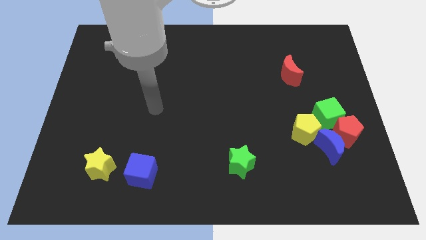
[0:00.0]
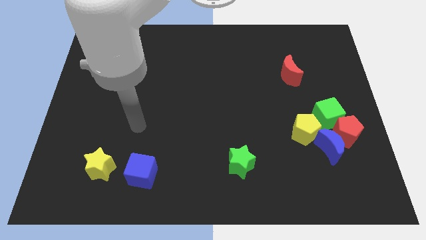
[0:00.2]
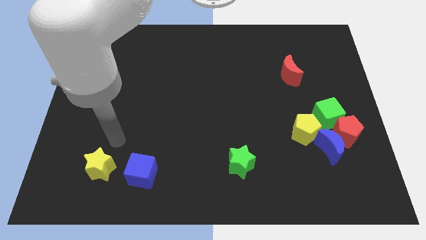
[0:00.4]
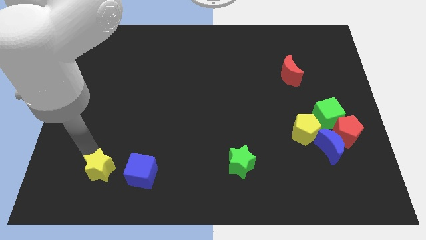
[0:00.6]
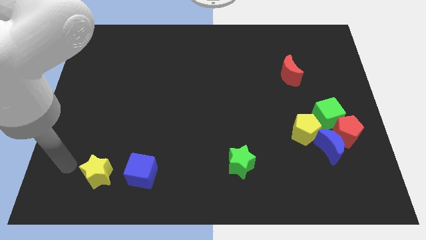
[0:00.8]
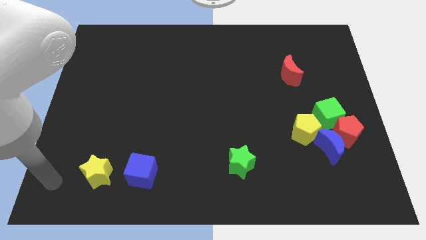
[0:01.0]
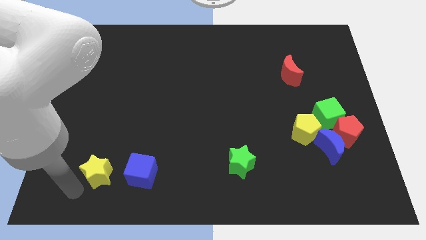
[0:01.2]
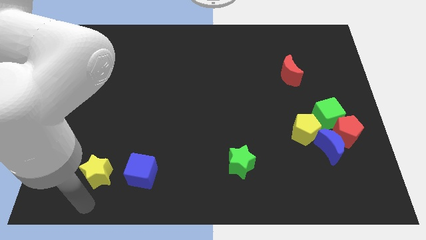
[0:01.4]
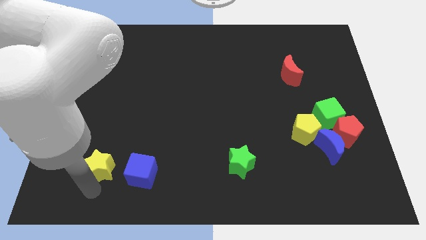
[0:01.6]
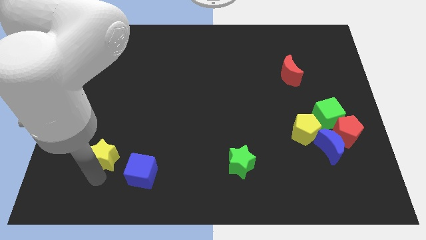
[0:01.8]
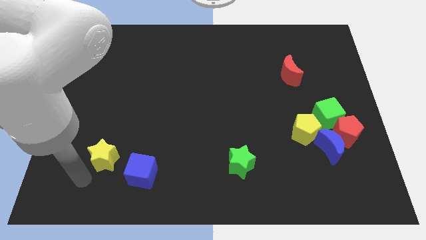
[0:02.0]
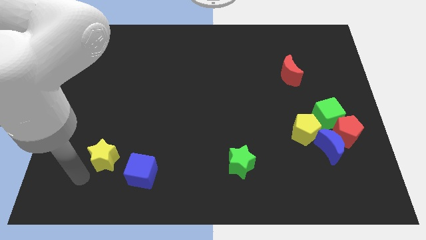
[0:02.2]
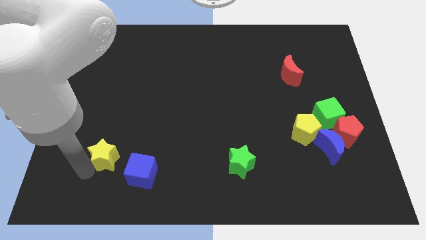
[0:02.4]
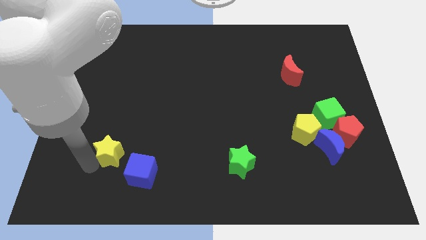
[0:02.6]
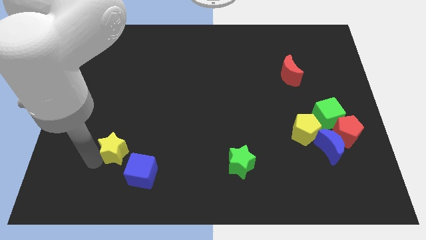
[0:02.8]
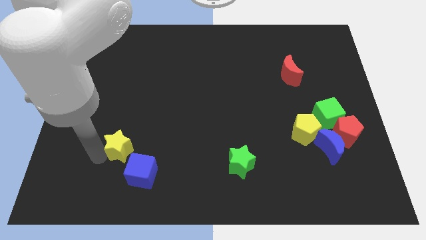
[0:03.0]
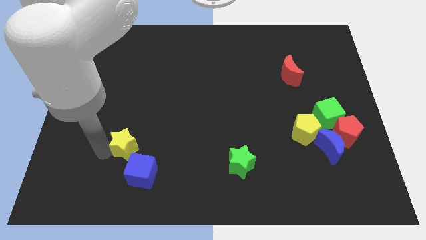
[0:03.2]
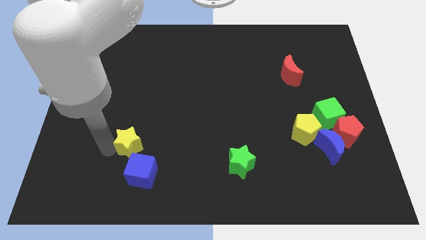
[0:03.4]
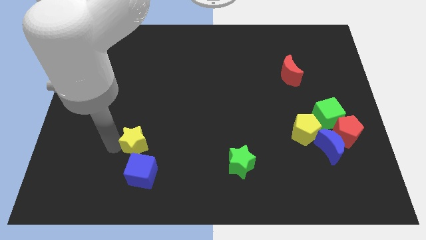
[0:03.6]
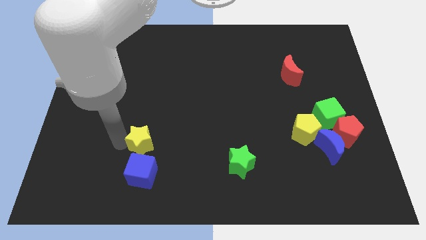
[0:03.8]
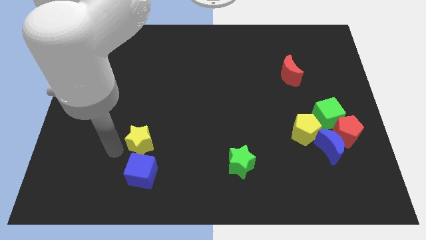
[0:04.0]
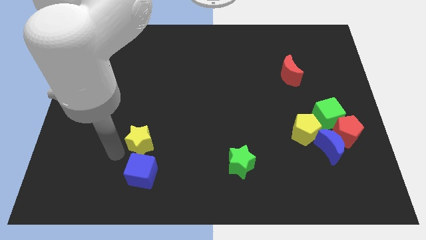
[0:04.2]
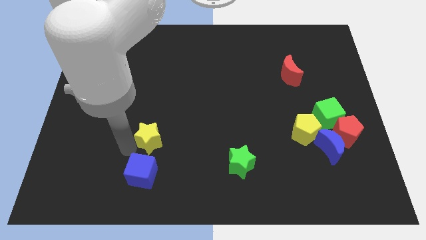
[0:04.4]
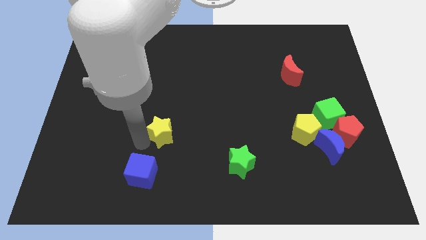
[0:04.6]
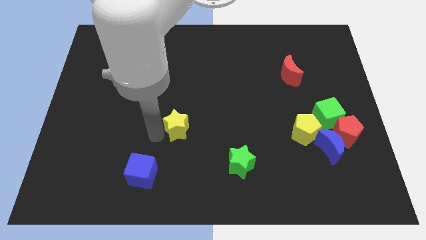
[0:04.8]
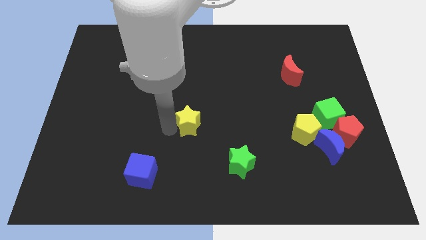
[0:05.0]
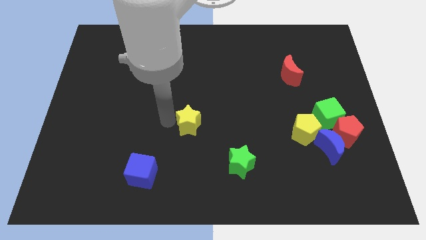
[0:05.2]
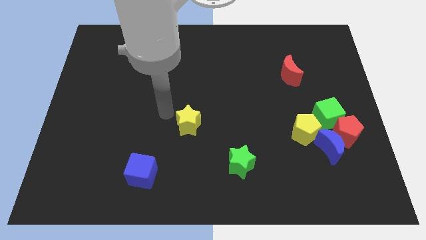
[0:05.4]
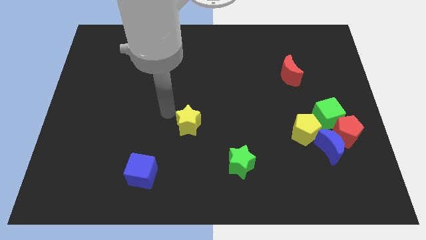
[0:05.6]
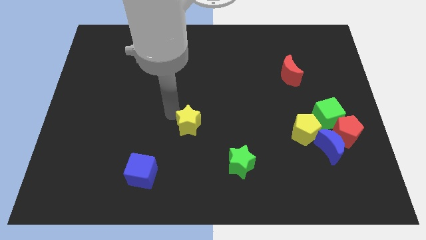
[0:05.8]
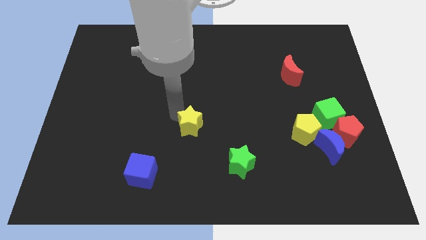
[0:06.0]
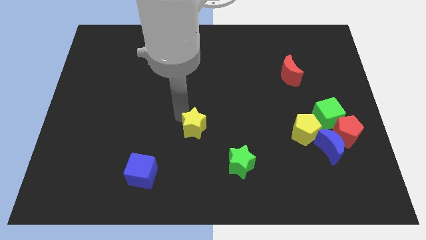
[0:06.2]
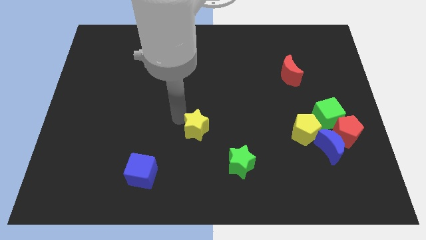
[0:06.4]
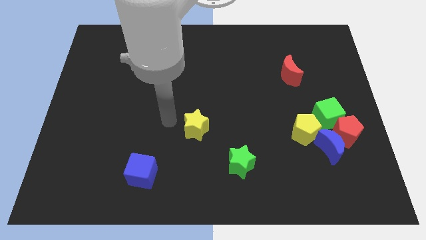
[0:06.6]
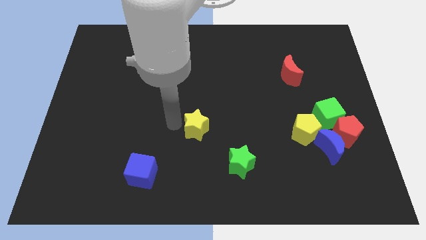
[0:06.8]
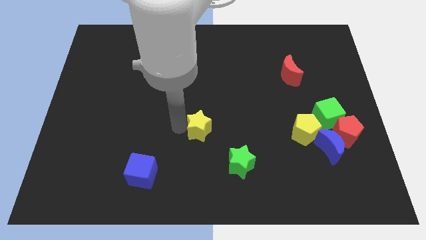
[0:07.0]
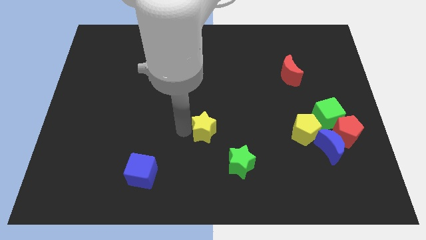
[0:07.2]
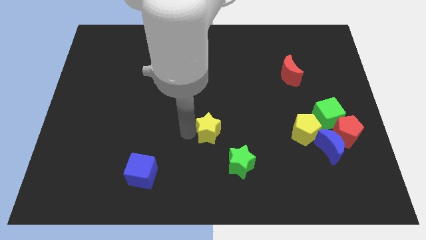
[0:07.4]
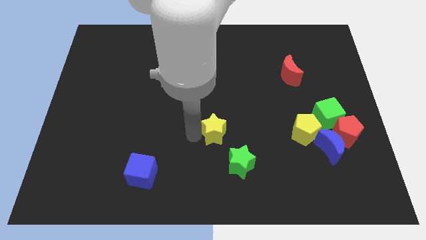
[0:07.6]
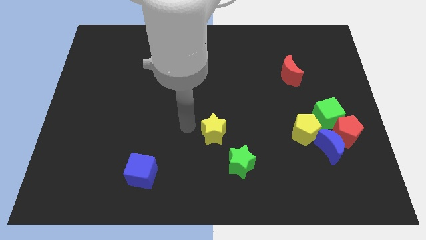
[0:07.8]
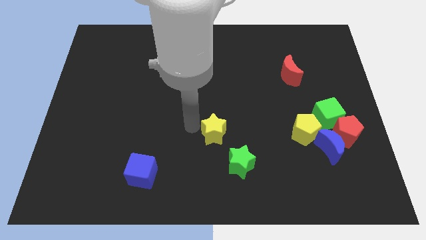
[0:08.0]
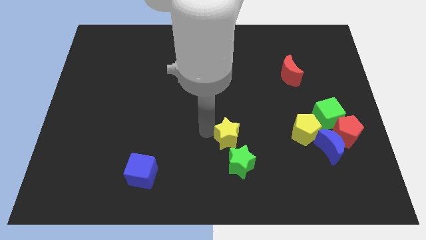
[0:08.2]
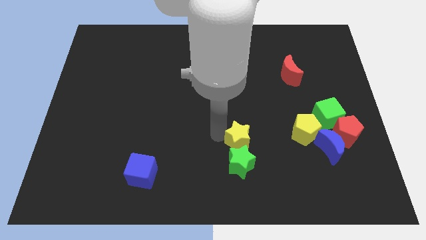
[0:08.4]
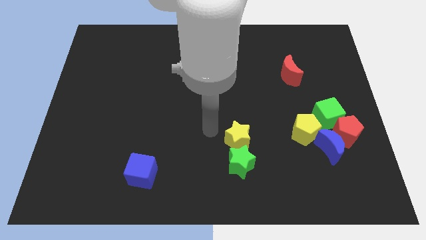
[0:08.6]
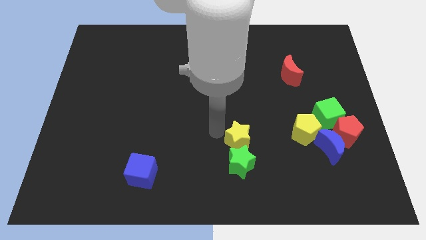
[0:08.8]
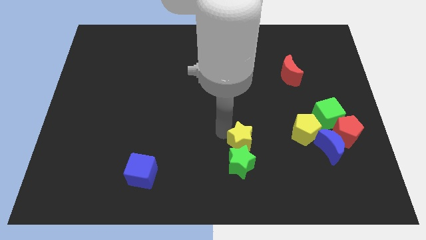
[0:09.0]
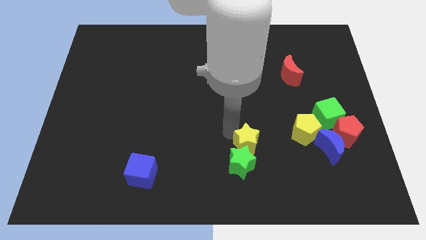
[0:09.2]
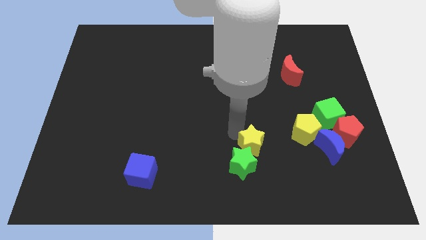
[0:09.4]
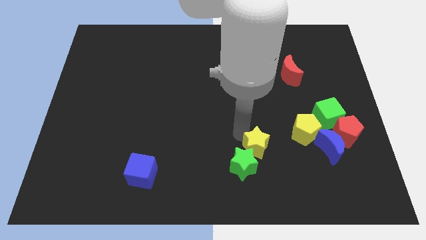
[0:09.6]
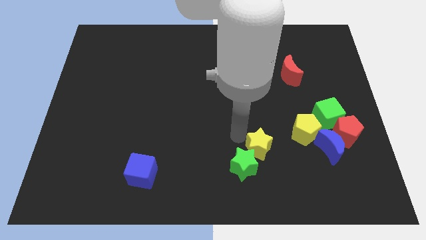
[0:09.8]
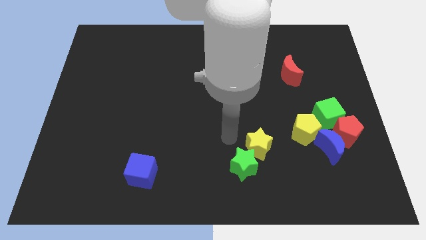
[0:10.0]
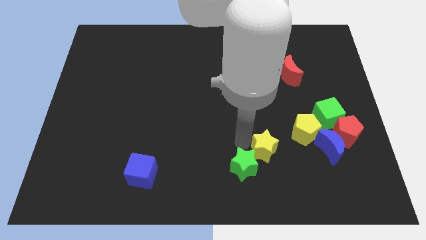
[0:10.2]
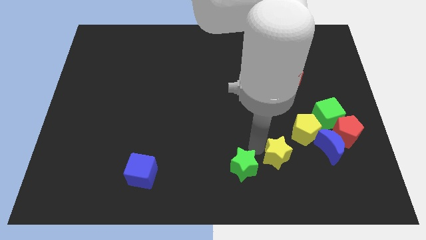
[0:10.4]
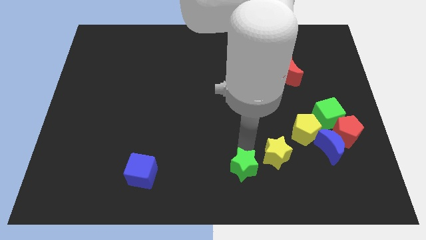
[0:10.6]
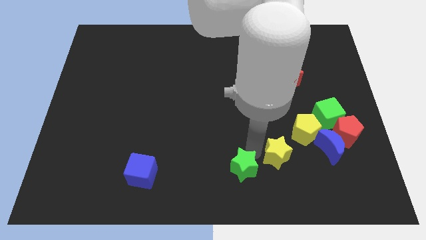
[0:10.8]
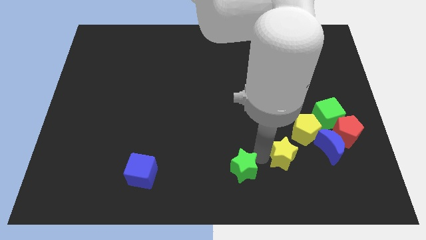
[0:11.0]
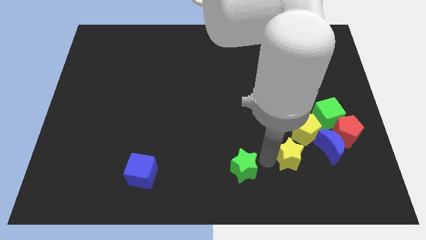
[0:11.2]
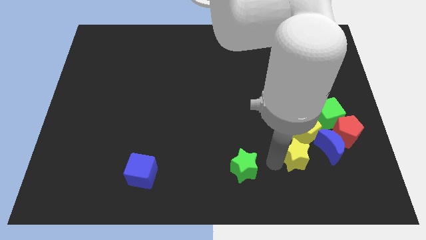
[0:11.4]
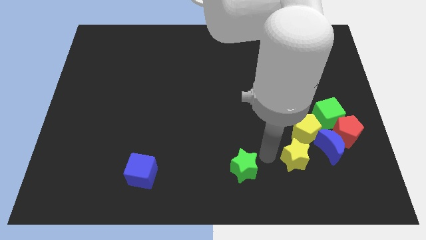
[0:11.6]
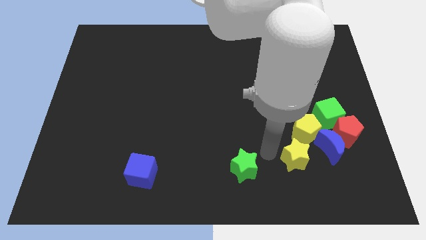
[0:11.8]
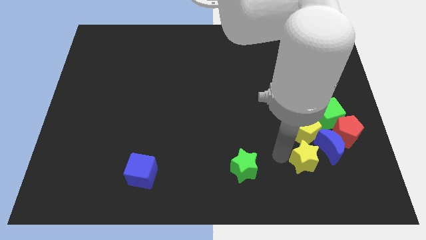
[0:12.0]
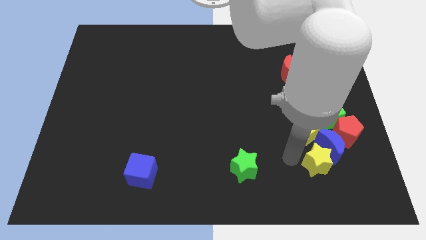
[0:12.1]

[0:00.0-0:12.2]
slide the yellow star to the bottom right side of the yellow pentagon

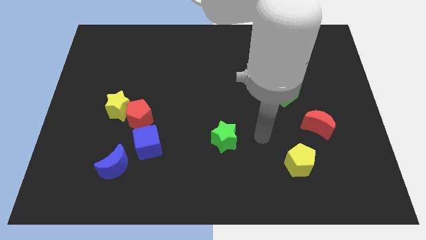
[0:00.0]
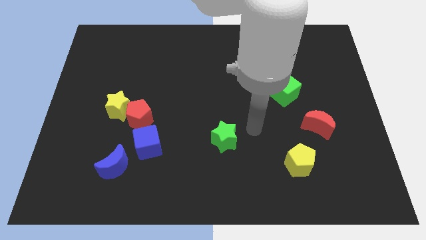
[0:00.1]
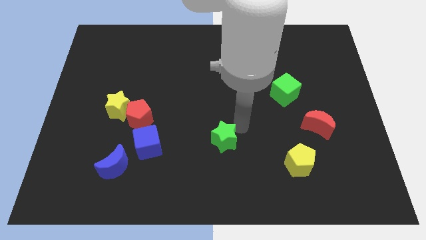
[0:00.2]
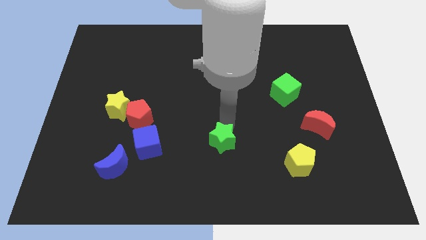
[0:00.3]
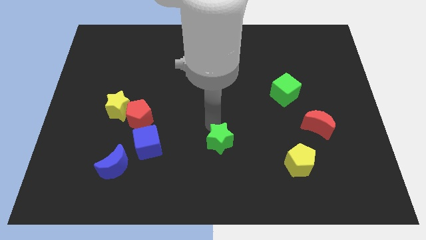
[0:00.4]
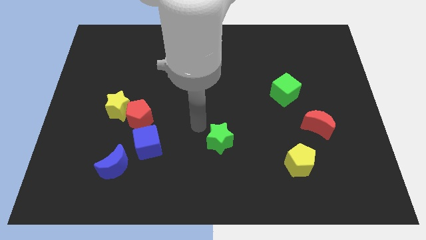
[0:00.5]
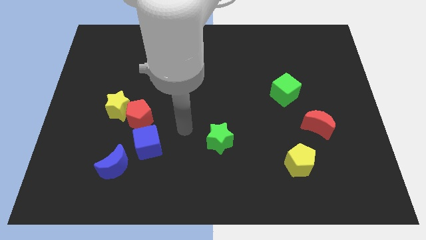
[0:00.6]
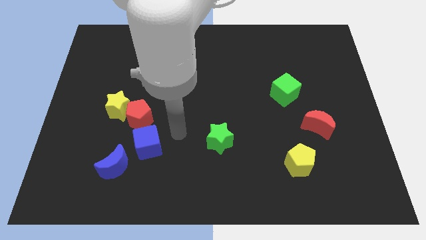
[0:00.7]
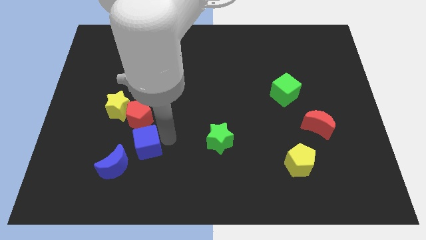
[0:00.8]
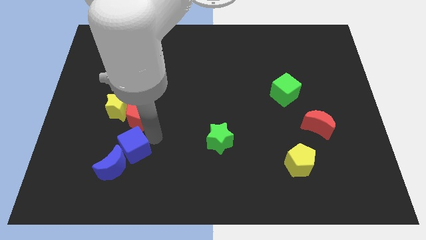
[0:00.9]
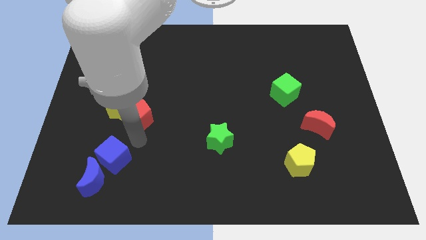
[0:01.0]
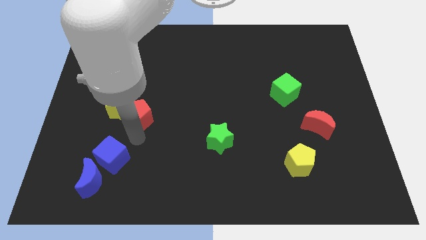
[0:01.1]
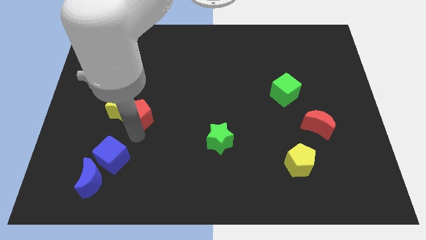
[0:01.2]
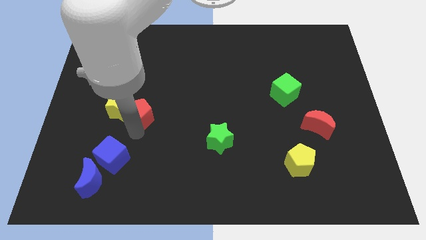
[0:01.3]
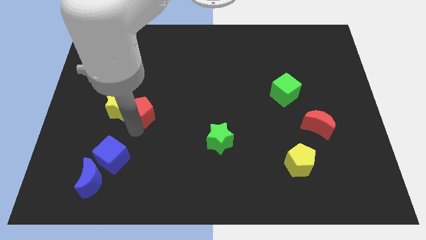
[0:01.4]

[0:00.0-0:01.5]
put the red pentagon to the top right side of the yellow star
